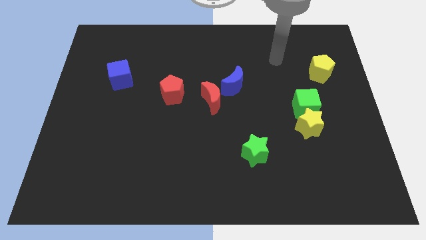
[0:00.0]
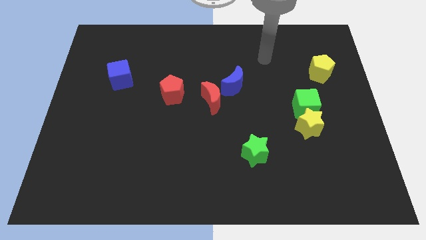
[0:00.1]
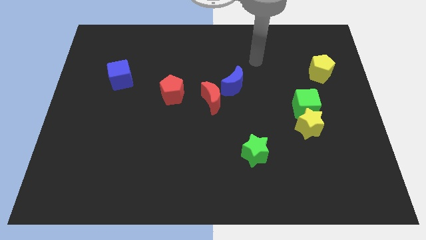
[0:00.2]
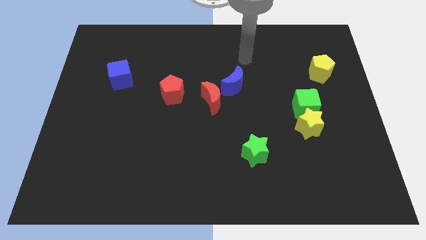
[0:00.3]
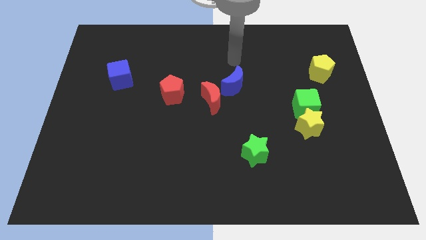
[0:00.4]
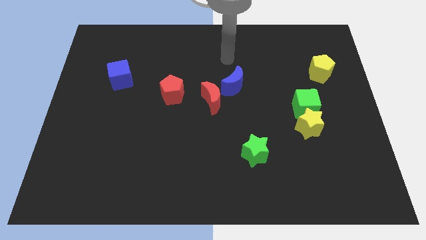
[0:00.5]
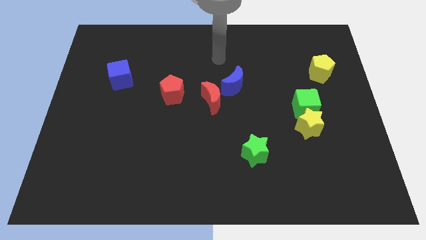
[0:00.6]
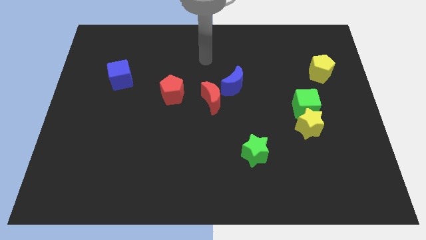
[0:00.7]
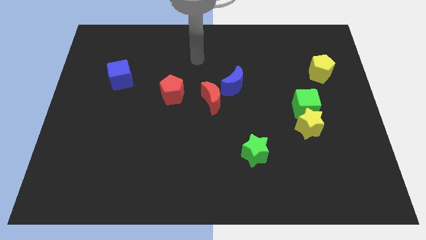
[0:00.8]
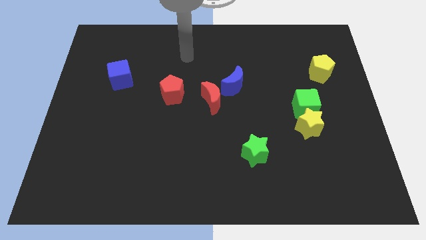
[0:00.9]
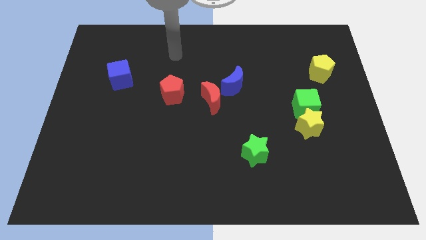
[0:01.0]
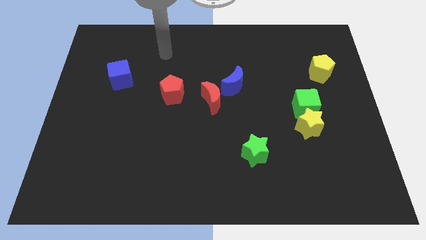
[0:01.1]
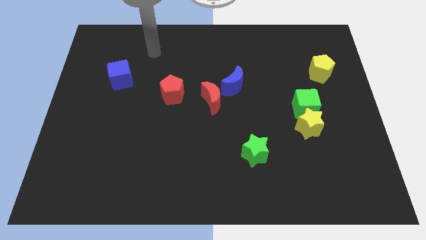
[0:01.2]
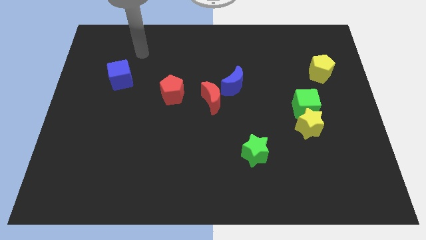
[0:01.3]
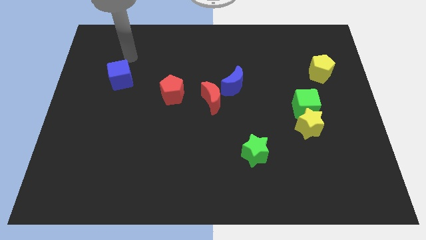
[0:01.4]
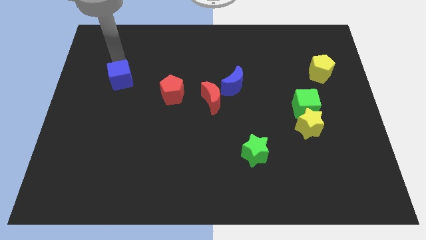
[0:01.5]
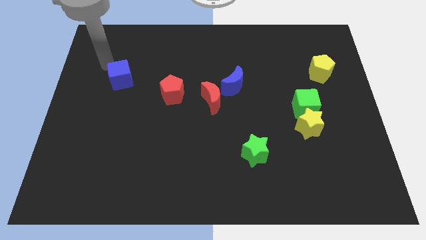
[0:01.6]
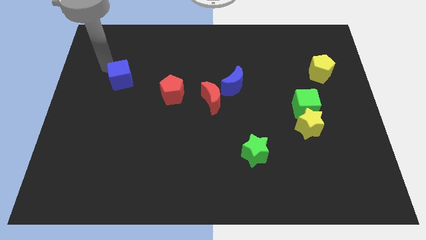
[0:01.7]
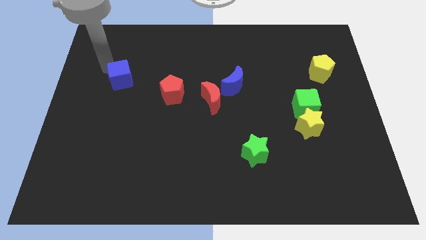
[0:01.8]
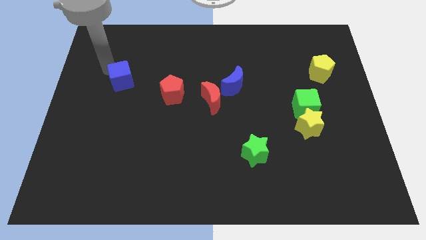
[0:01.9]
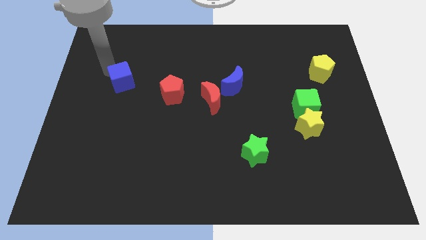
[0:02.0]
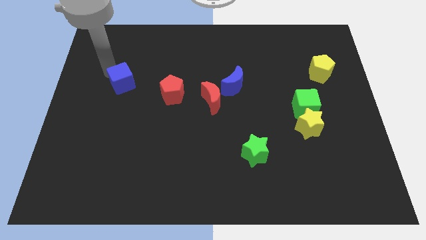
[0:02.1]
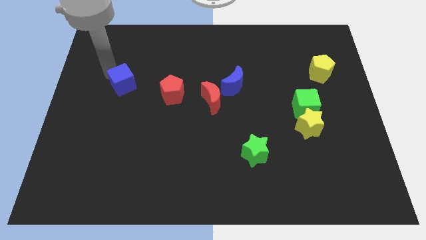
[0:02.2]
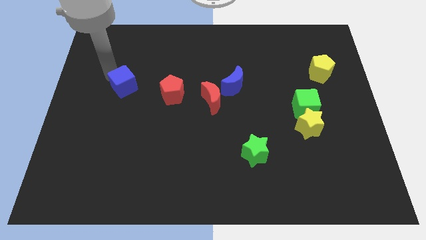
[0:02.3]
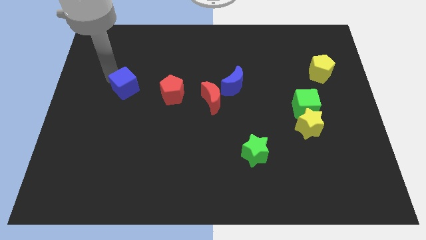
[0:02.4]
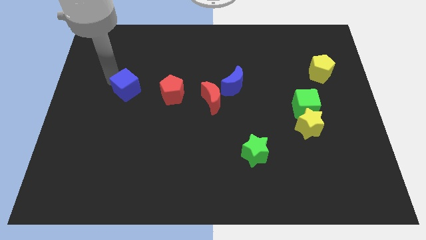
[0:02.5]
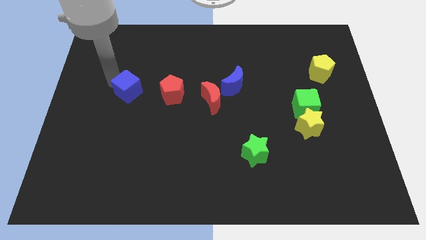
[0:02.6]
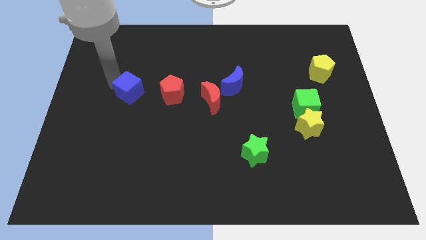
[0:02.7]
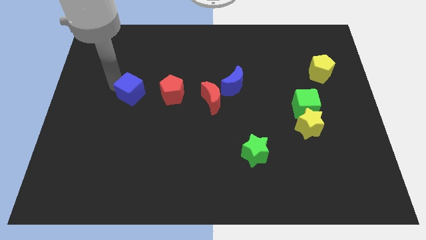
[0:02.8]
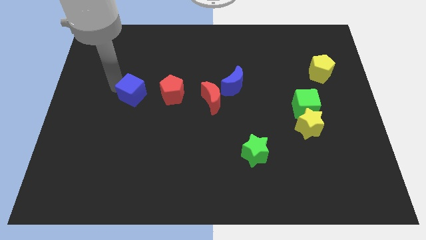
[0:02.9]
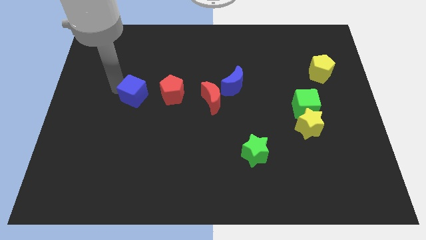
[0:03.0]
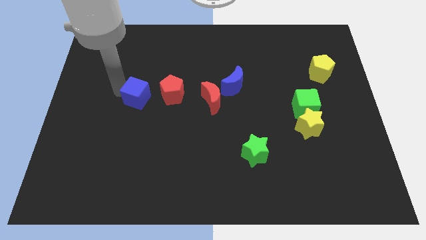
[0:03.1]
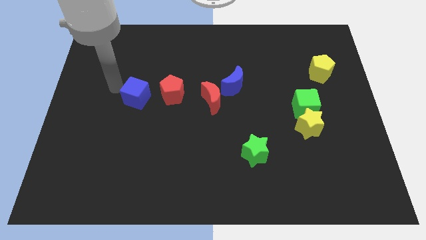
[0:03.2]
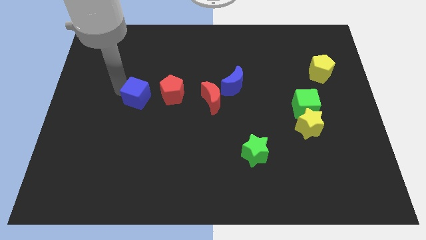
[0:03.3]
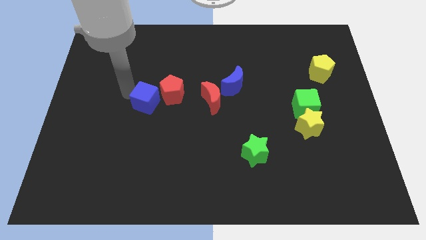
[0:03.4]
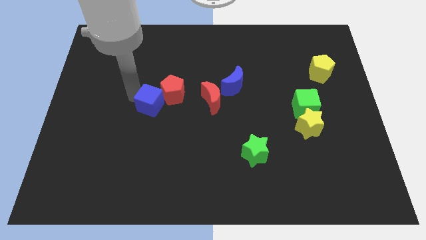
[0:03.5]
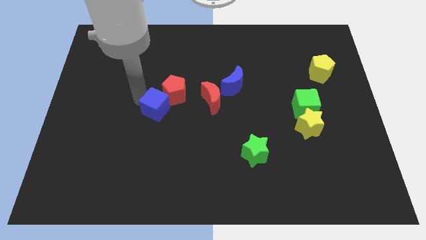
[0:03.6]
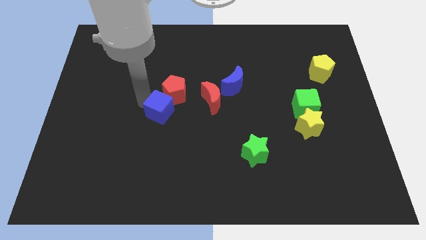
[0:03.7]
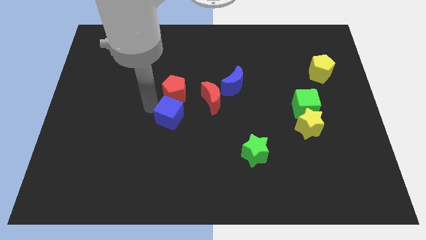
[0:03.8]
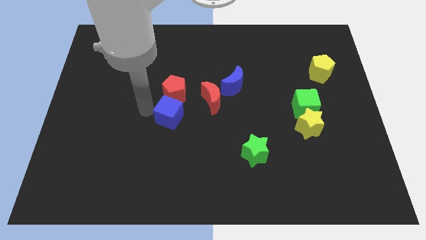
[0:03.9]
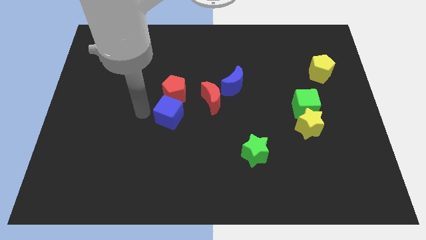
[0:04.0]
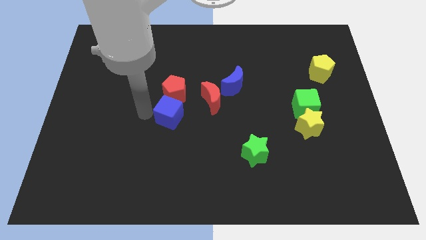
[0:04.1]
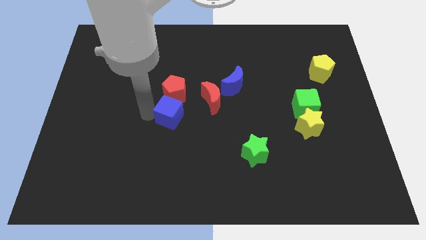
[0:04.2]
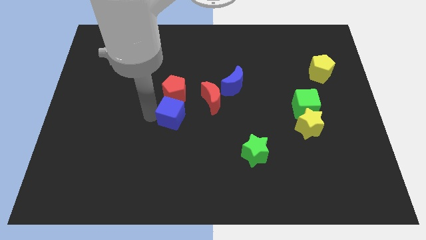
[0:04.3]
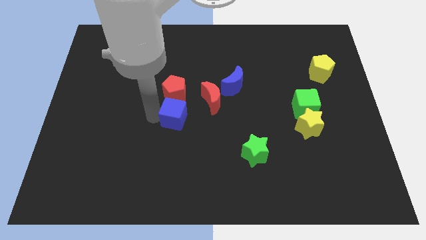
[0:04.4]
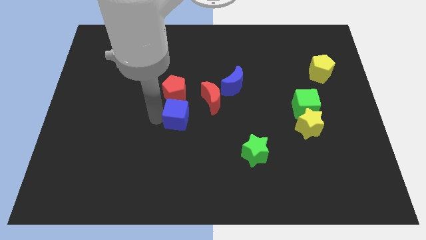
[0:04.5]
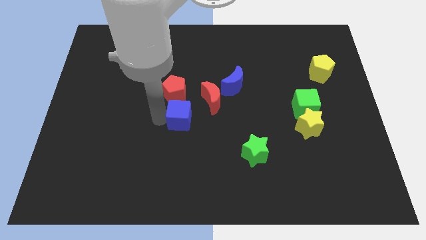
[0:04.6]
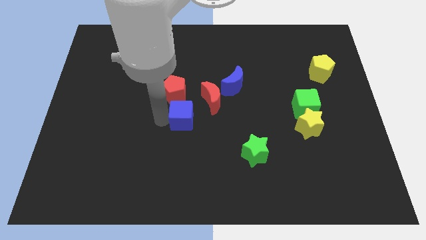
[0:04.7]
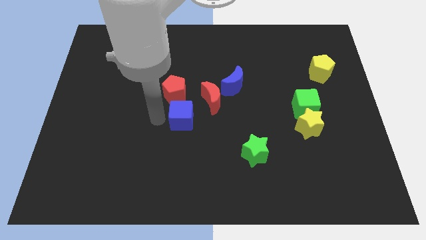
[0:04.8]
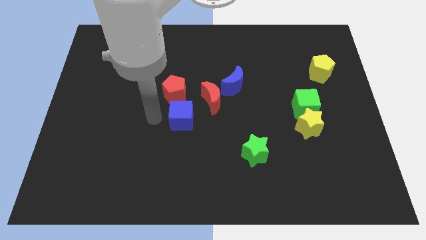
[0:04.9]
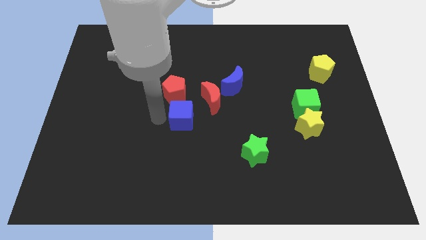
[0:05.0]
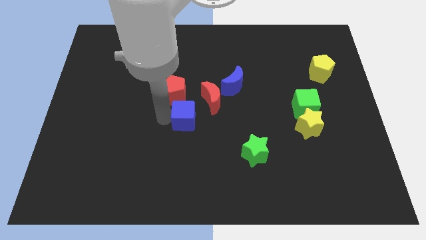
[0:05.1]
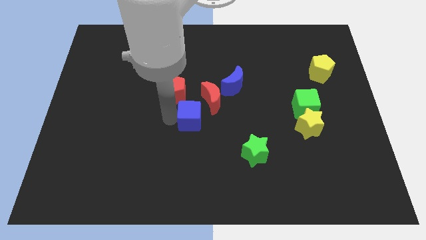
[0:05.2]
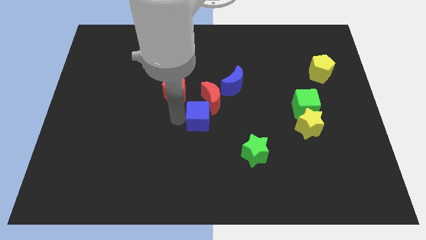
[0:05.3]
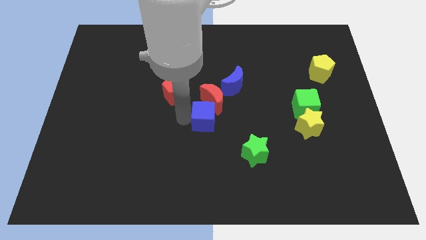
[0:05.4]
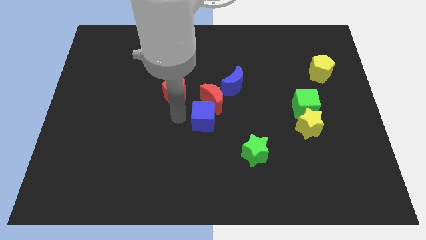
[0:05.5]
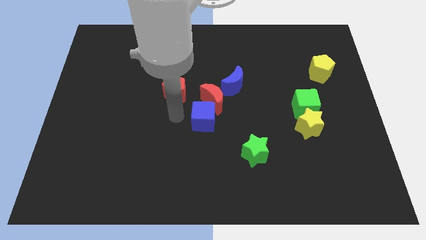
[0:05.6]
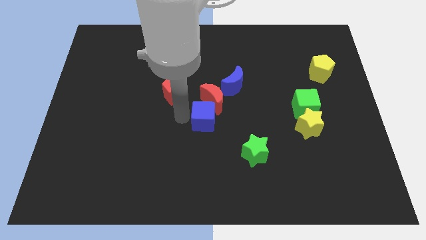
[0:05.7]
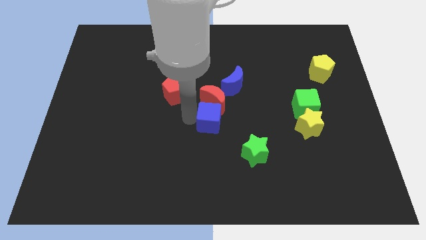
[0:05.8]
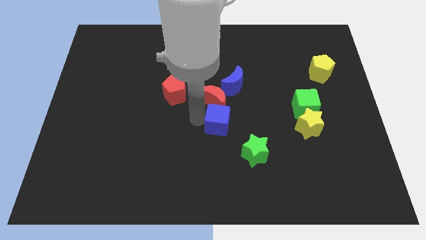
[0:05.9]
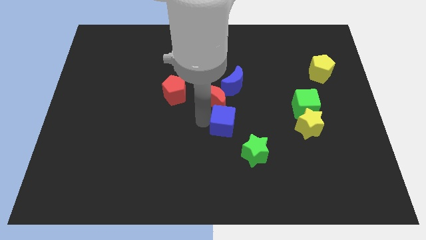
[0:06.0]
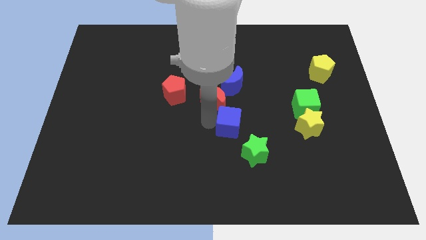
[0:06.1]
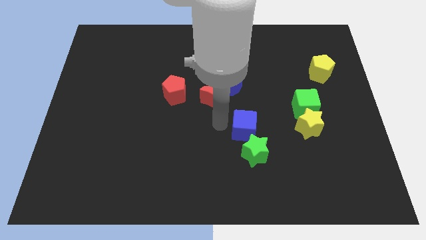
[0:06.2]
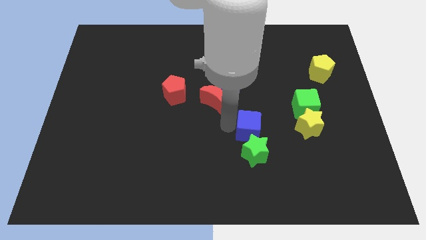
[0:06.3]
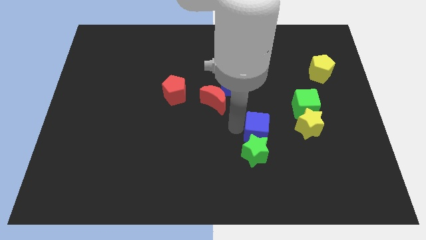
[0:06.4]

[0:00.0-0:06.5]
put the blue cube to the top right side of the green star
